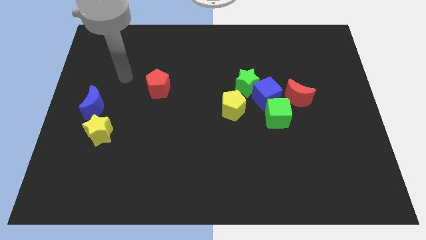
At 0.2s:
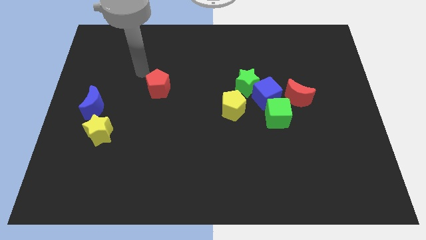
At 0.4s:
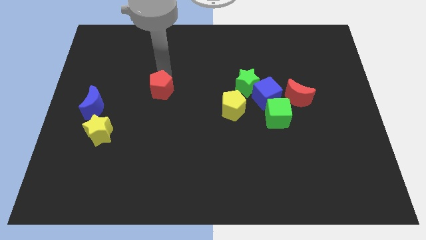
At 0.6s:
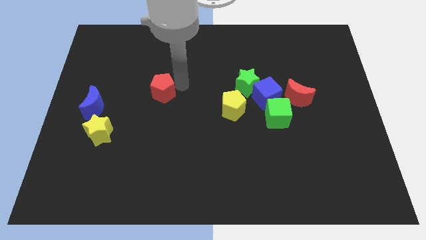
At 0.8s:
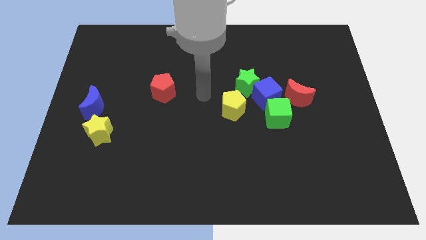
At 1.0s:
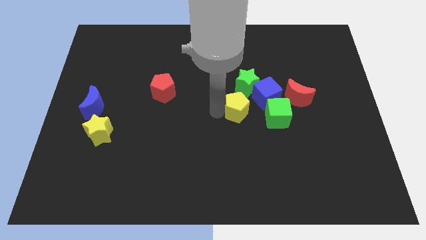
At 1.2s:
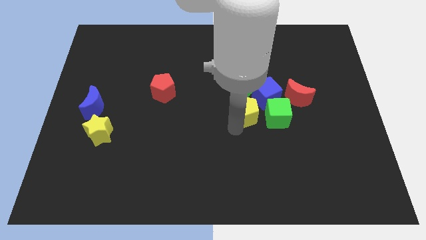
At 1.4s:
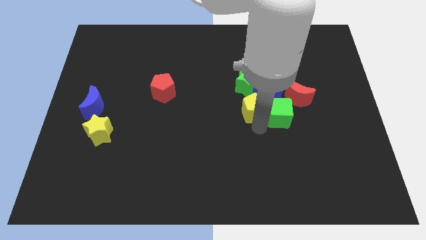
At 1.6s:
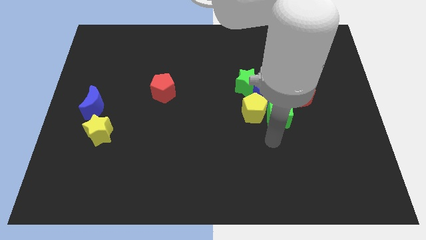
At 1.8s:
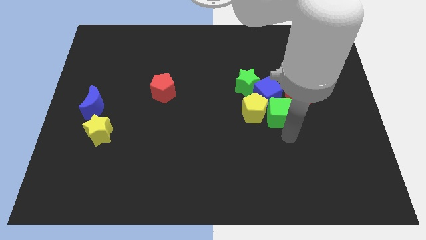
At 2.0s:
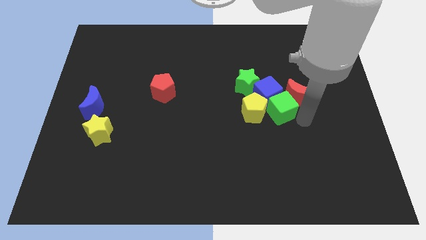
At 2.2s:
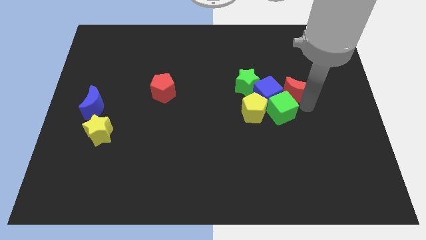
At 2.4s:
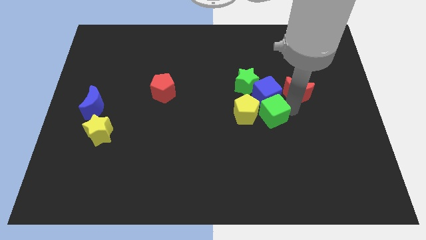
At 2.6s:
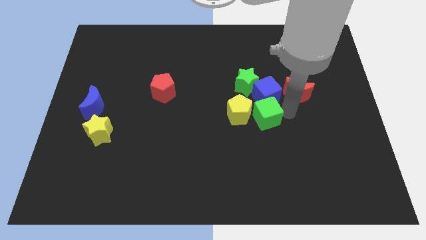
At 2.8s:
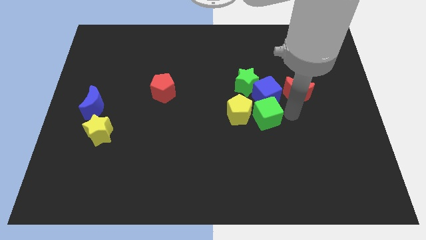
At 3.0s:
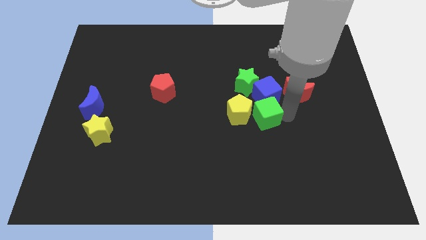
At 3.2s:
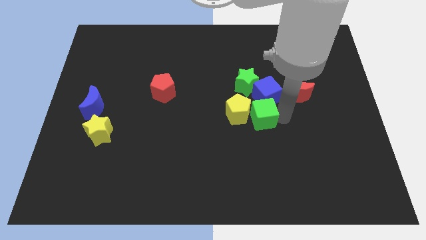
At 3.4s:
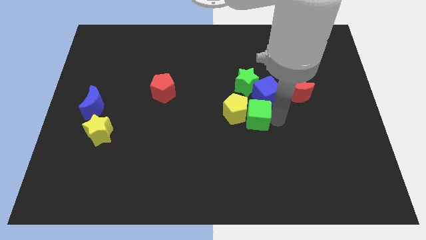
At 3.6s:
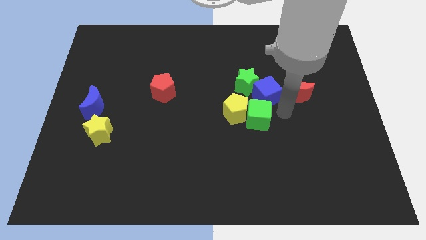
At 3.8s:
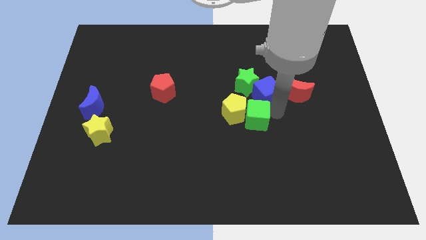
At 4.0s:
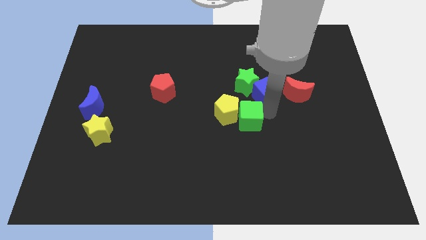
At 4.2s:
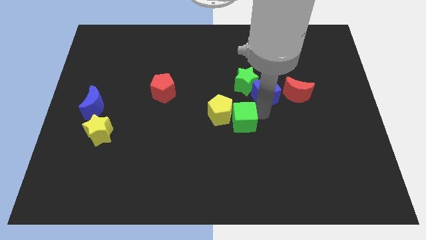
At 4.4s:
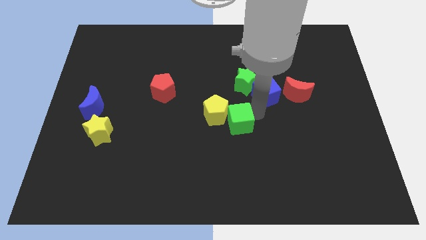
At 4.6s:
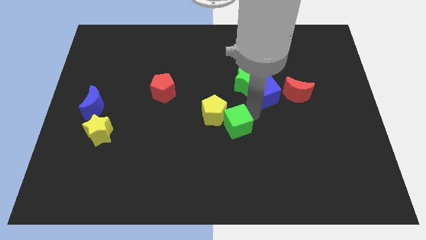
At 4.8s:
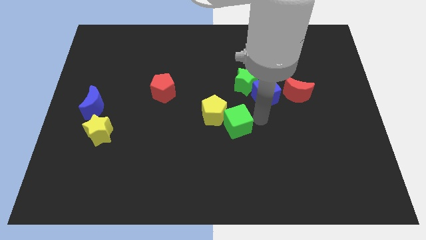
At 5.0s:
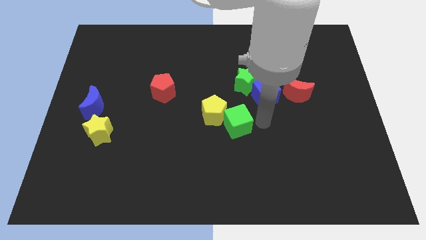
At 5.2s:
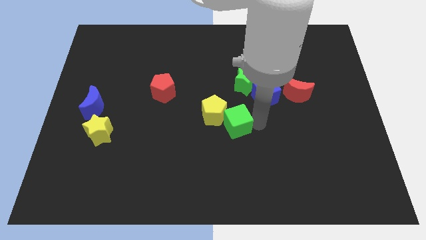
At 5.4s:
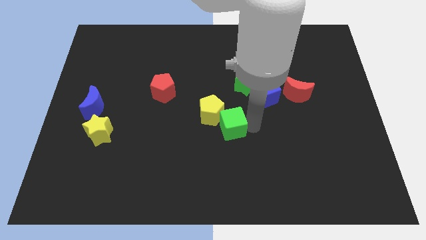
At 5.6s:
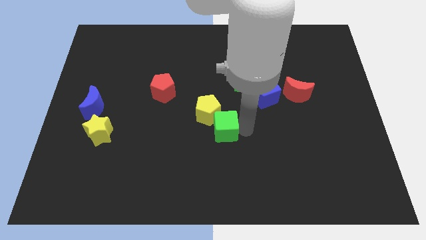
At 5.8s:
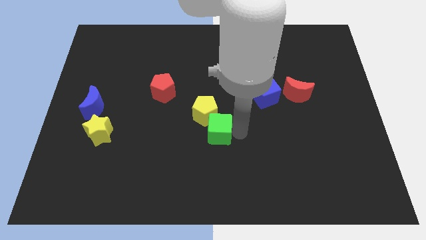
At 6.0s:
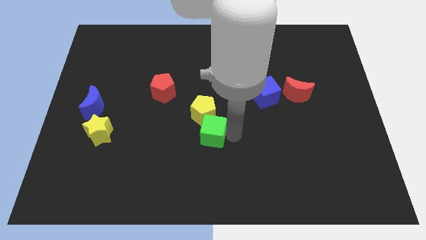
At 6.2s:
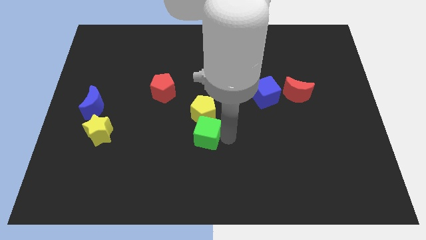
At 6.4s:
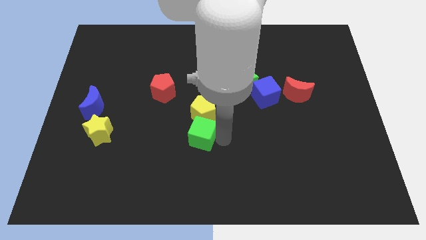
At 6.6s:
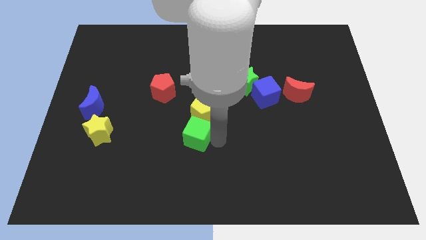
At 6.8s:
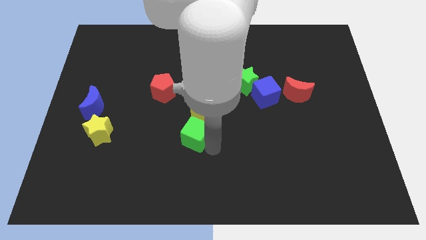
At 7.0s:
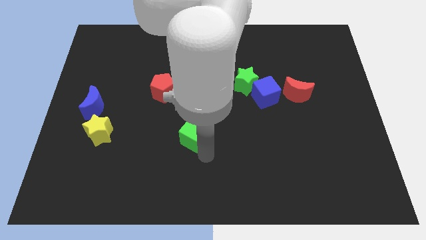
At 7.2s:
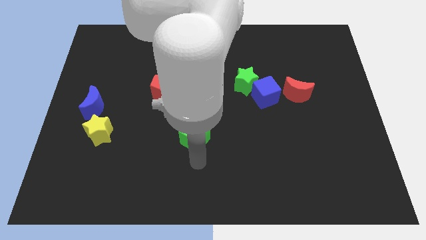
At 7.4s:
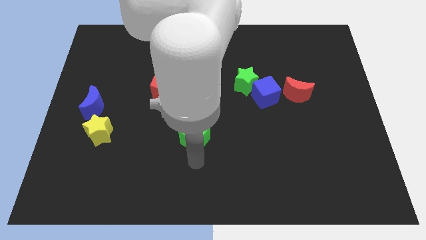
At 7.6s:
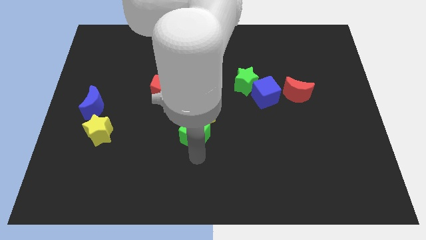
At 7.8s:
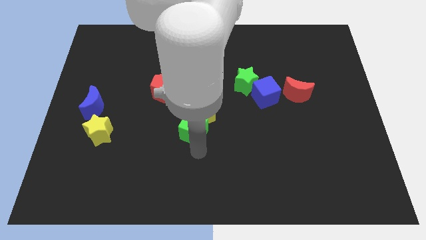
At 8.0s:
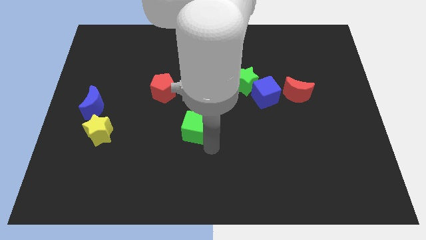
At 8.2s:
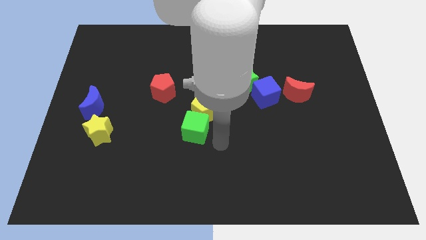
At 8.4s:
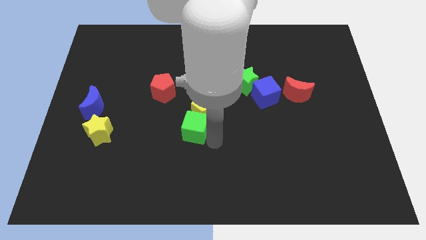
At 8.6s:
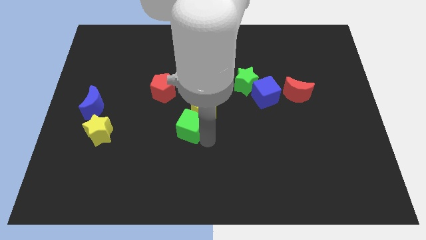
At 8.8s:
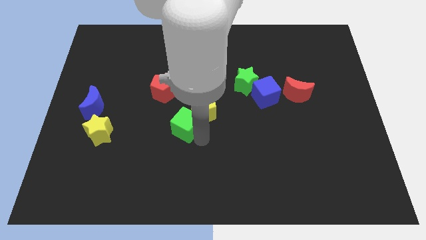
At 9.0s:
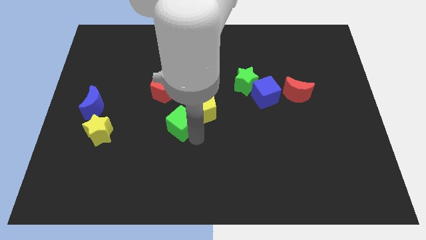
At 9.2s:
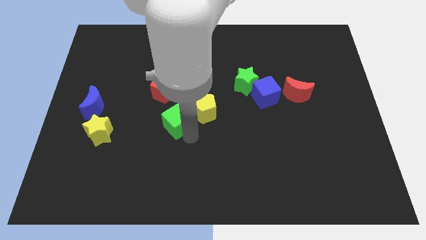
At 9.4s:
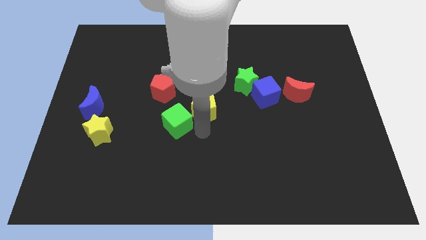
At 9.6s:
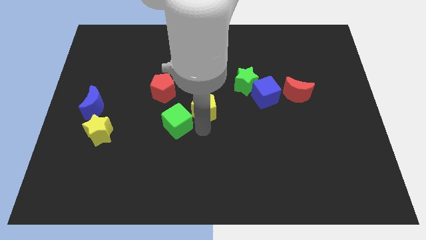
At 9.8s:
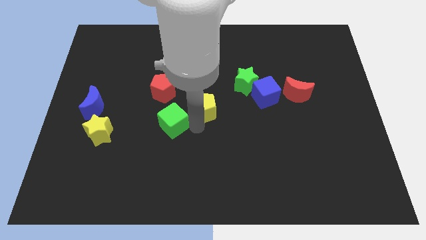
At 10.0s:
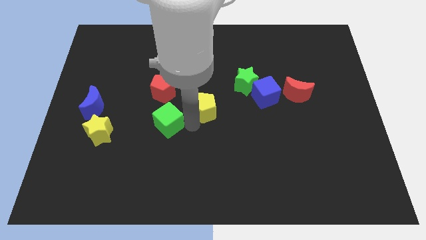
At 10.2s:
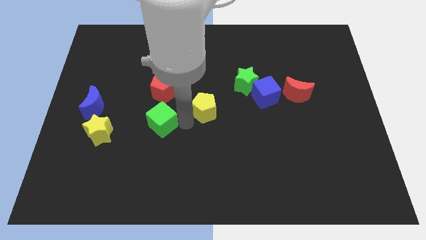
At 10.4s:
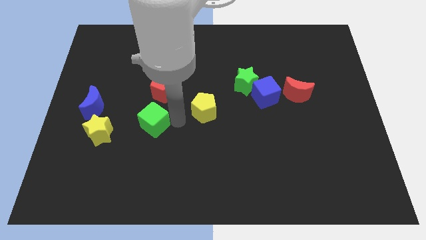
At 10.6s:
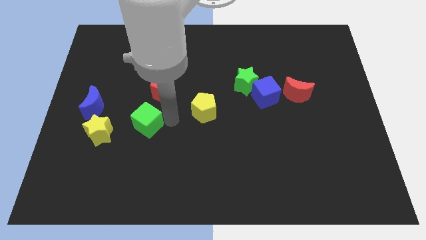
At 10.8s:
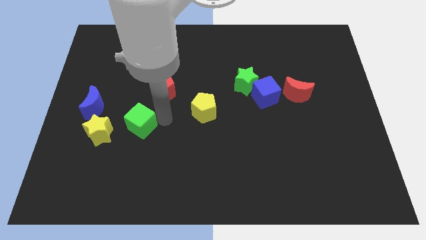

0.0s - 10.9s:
move the green cube to the top right of the yellow star
